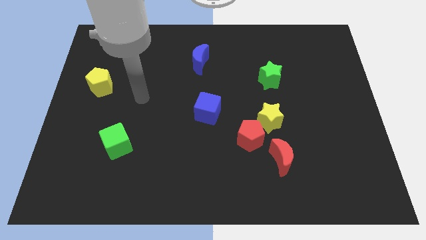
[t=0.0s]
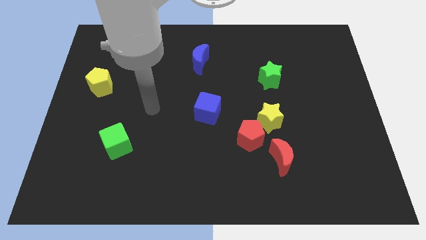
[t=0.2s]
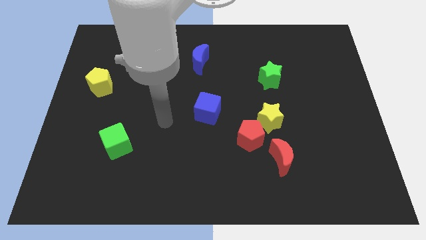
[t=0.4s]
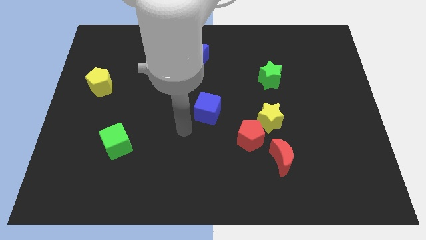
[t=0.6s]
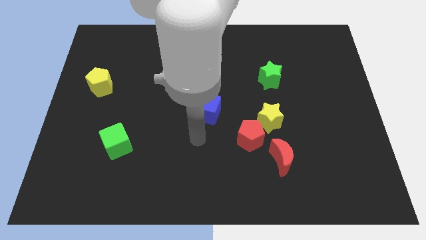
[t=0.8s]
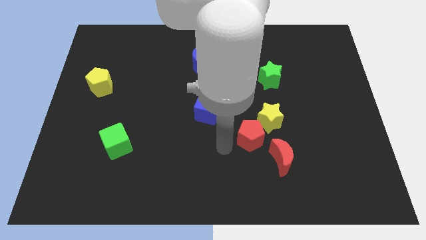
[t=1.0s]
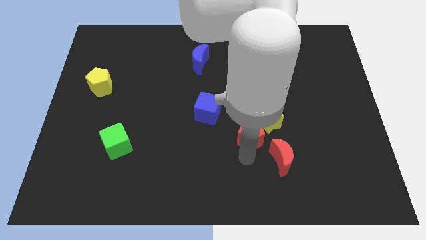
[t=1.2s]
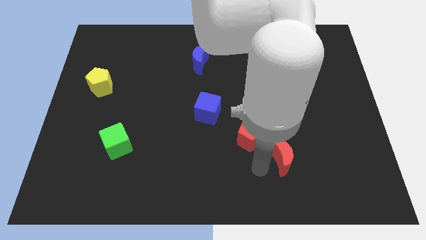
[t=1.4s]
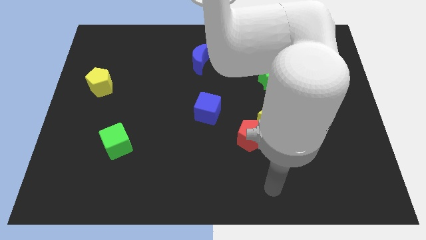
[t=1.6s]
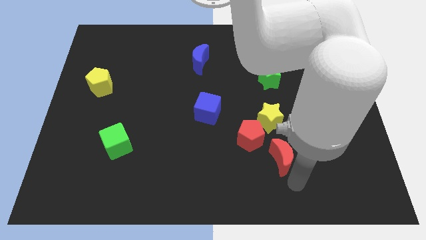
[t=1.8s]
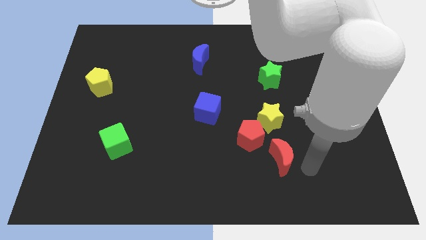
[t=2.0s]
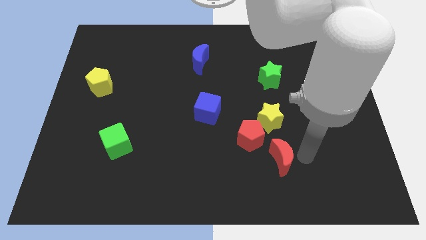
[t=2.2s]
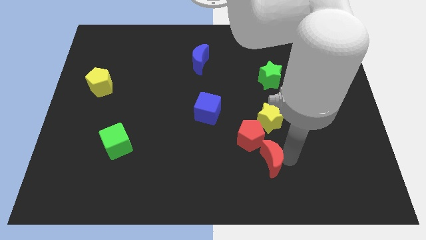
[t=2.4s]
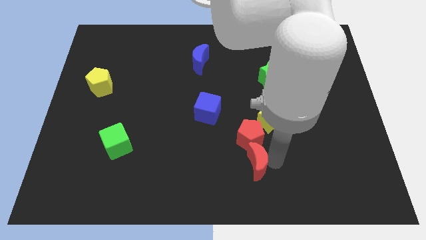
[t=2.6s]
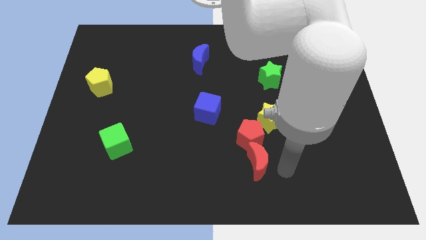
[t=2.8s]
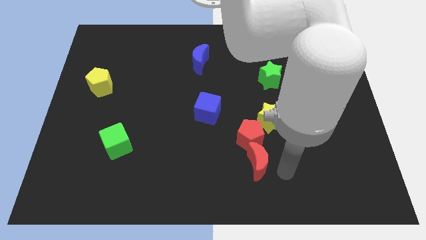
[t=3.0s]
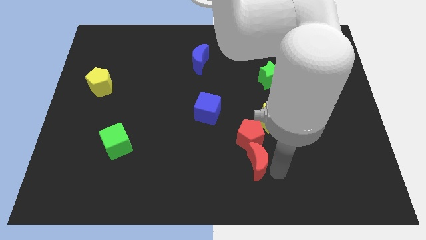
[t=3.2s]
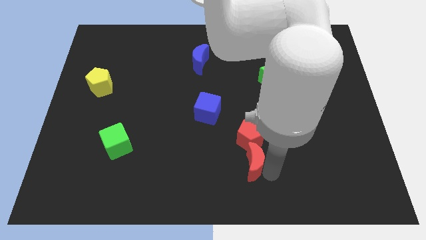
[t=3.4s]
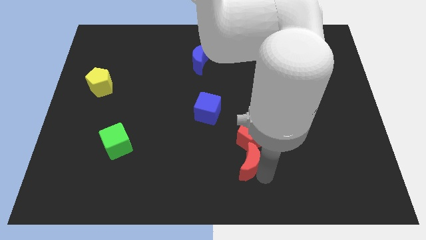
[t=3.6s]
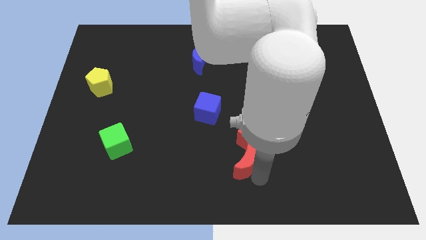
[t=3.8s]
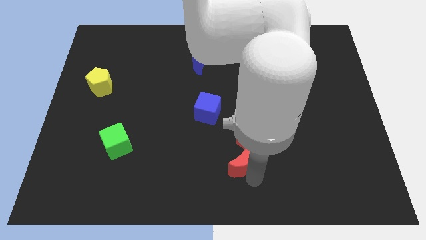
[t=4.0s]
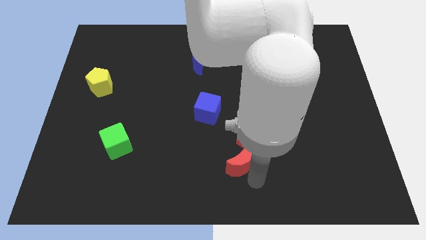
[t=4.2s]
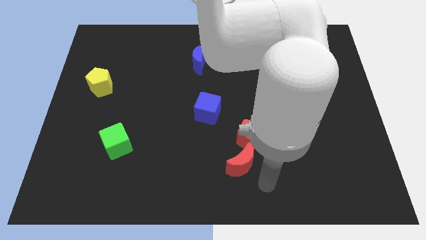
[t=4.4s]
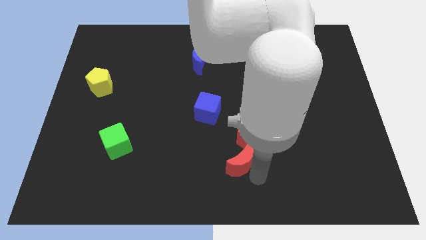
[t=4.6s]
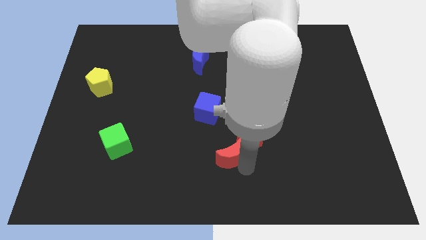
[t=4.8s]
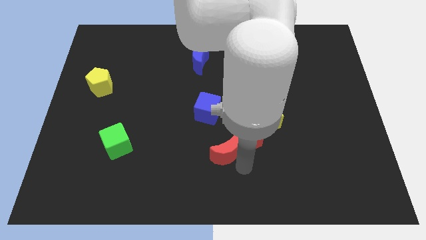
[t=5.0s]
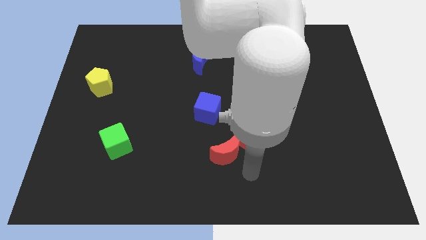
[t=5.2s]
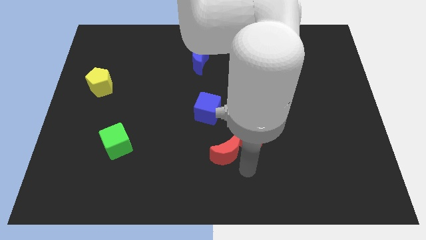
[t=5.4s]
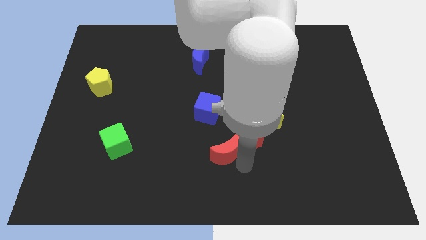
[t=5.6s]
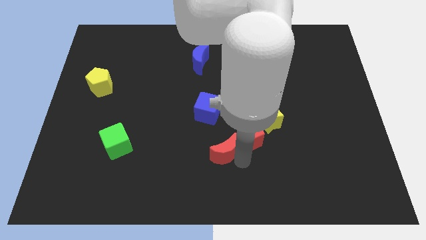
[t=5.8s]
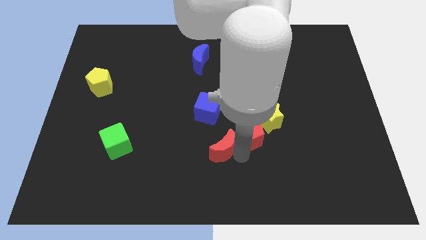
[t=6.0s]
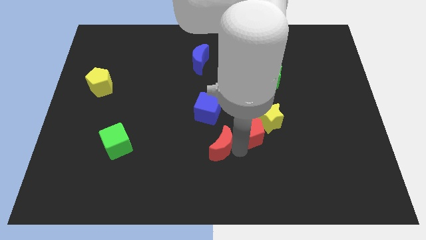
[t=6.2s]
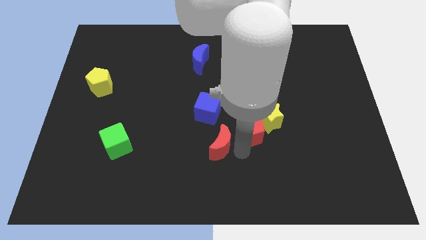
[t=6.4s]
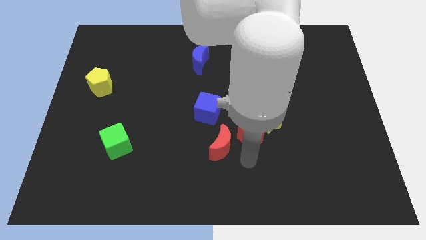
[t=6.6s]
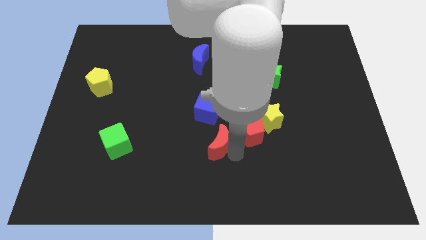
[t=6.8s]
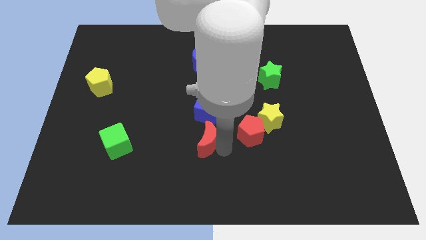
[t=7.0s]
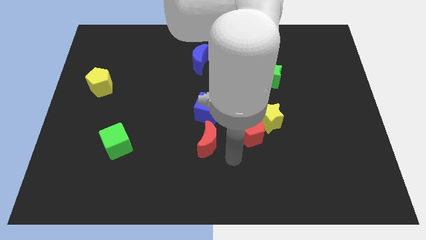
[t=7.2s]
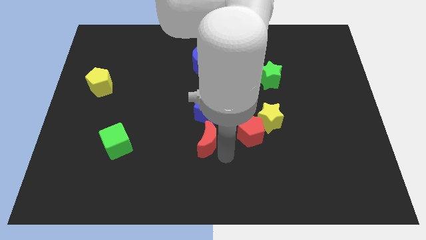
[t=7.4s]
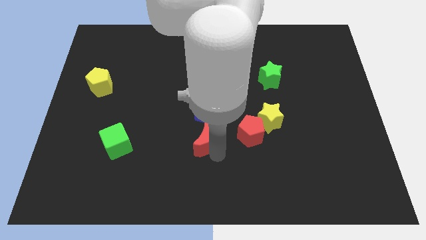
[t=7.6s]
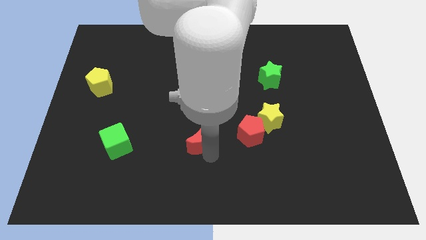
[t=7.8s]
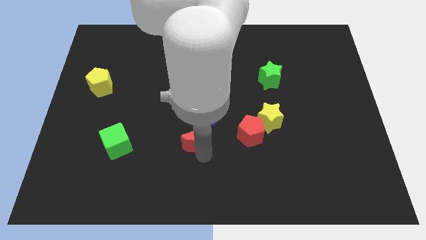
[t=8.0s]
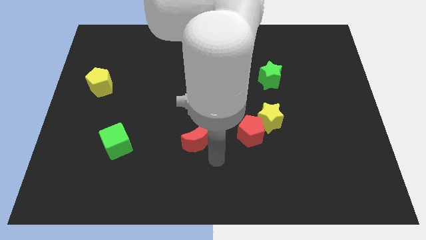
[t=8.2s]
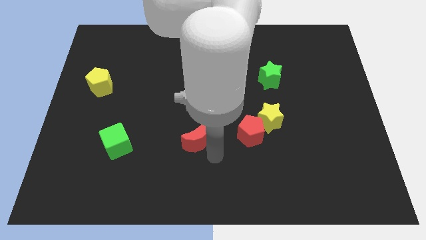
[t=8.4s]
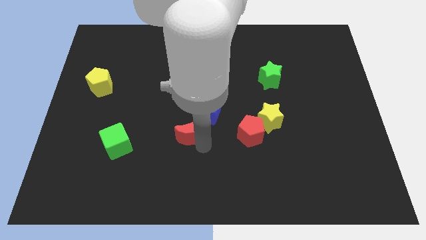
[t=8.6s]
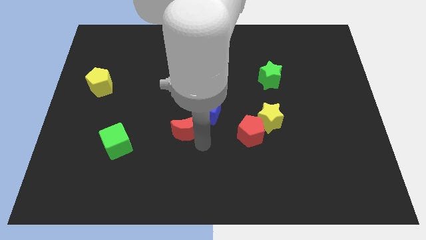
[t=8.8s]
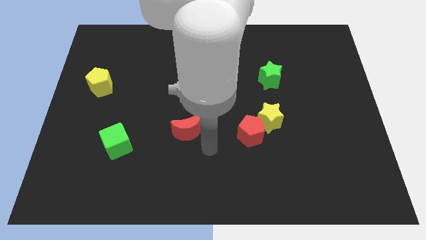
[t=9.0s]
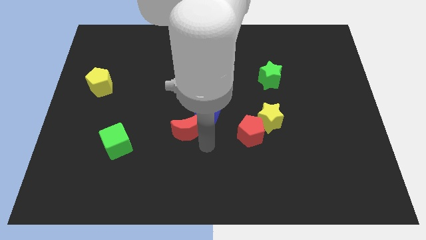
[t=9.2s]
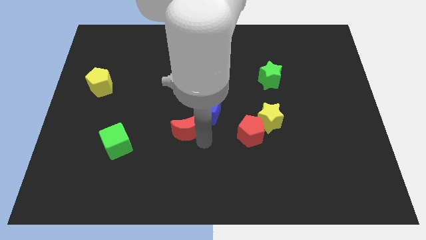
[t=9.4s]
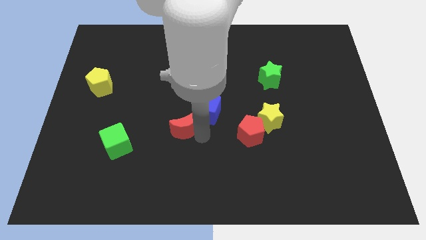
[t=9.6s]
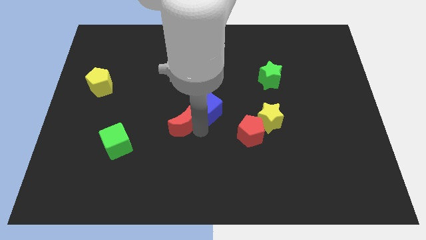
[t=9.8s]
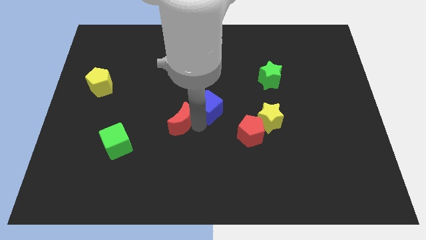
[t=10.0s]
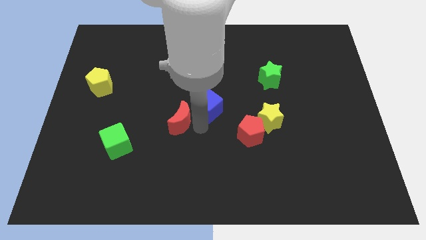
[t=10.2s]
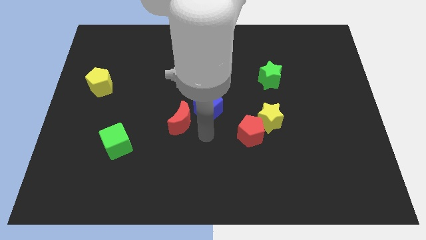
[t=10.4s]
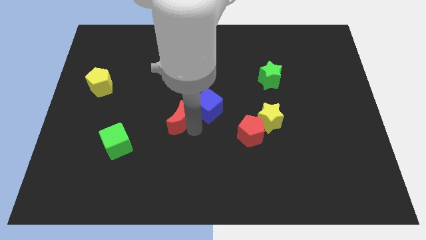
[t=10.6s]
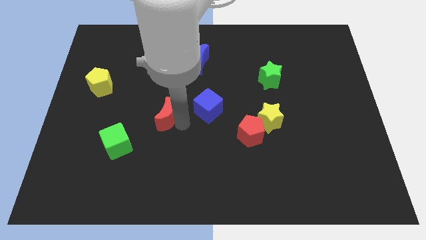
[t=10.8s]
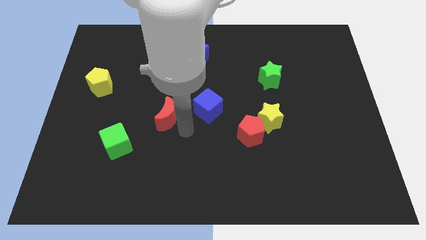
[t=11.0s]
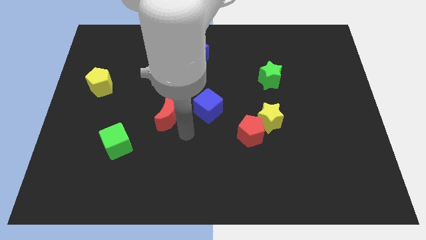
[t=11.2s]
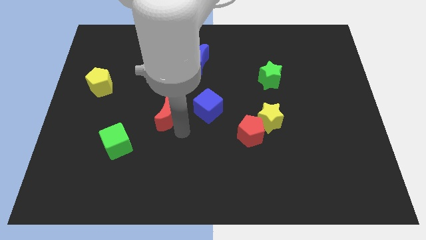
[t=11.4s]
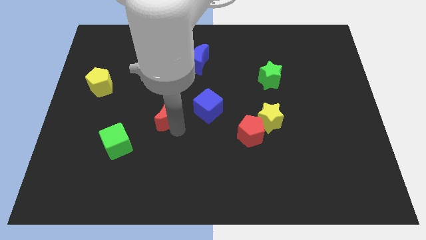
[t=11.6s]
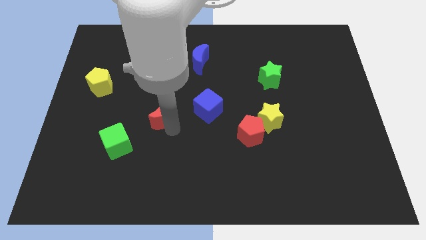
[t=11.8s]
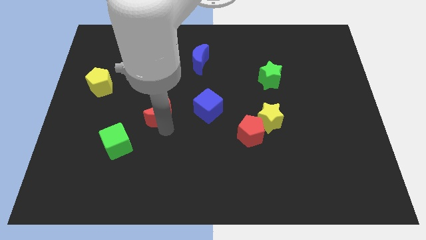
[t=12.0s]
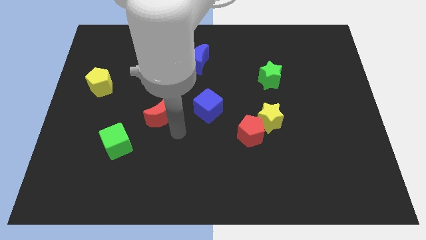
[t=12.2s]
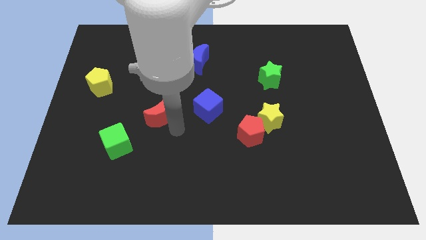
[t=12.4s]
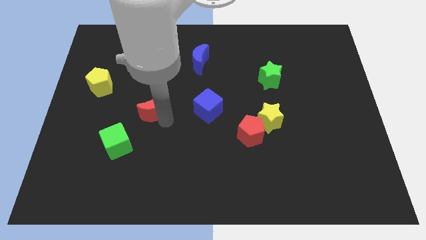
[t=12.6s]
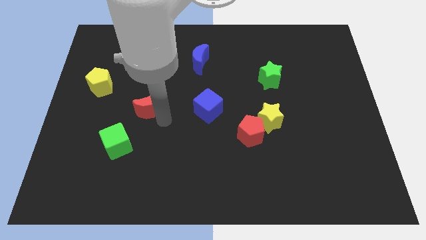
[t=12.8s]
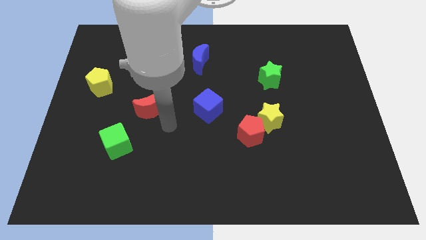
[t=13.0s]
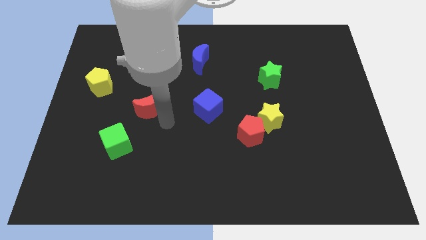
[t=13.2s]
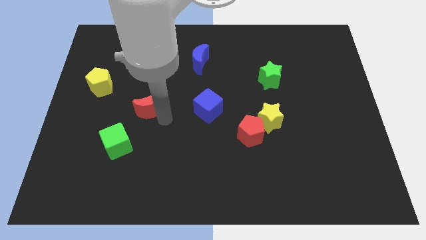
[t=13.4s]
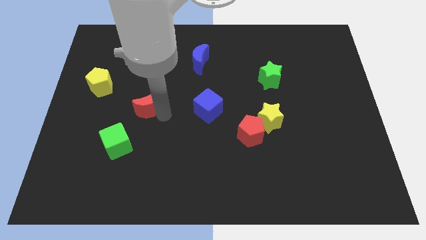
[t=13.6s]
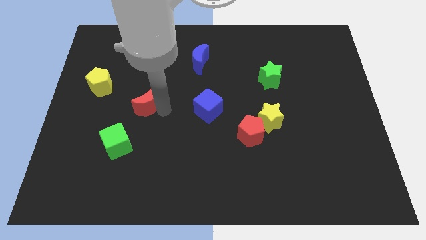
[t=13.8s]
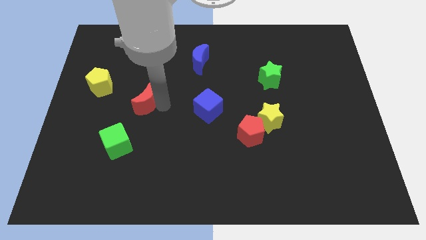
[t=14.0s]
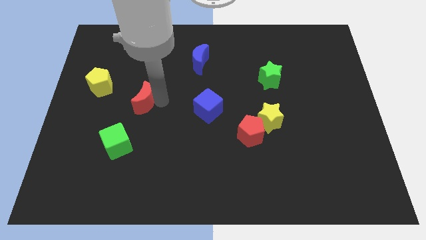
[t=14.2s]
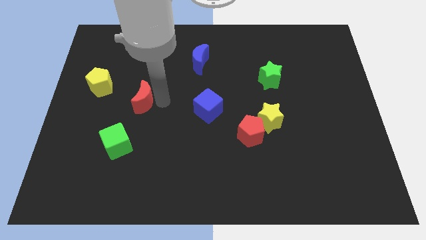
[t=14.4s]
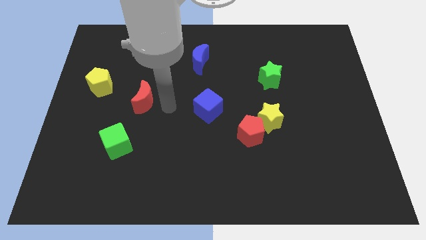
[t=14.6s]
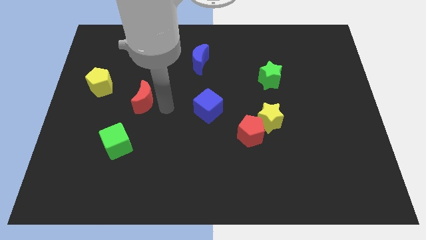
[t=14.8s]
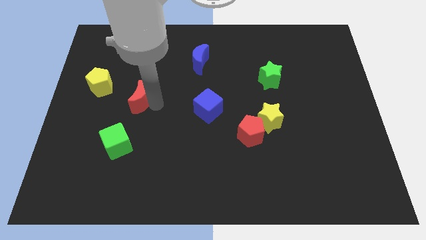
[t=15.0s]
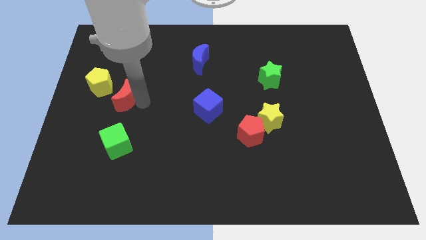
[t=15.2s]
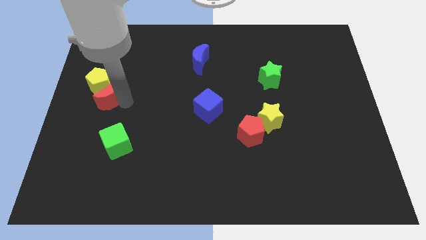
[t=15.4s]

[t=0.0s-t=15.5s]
slide the red moon next to the yellow pentagon

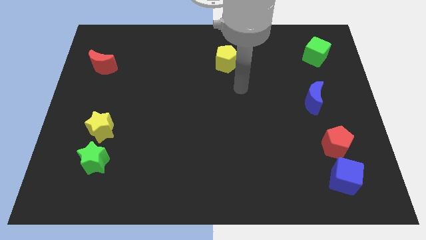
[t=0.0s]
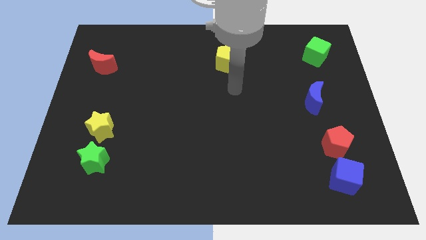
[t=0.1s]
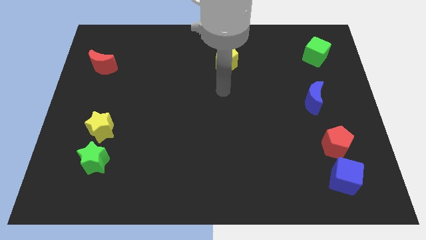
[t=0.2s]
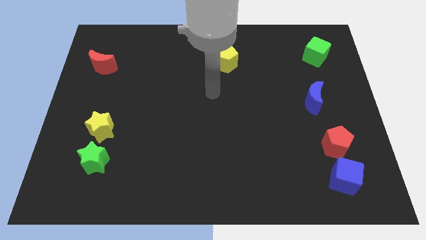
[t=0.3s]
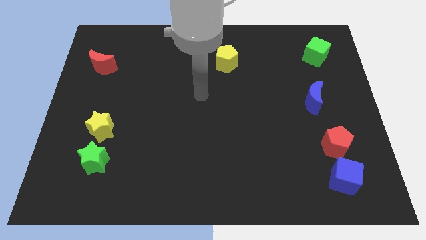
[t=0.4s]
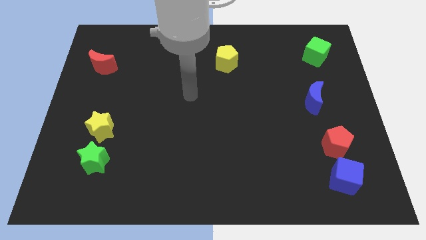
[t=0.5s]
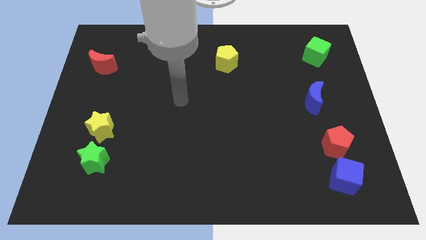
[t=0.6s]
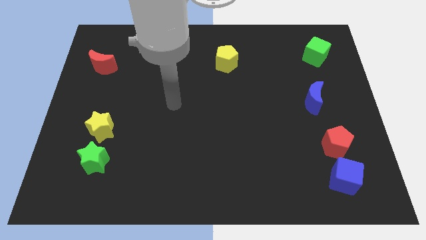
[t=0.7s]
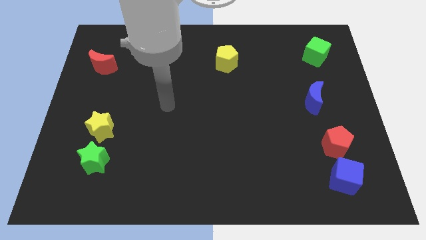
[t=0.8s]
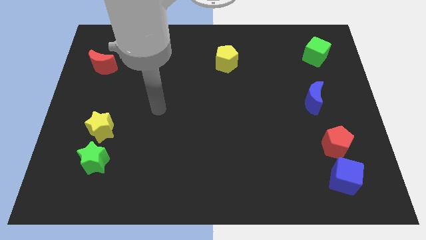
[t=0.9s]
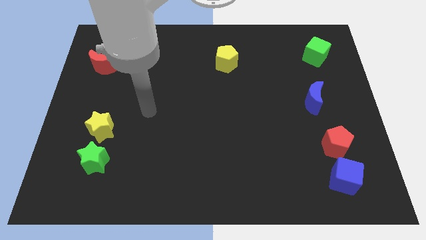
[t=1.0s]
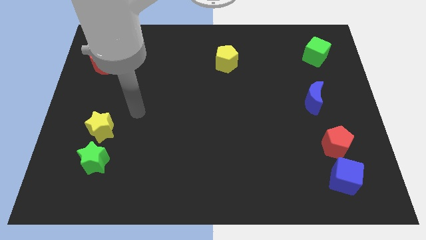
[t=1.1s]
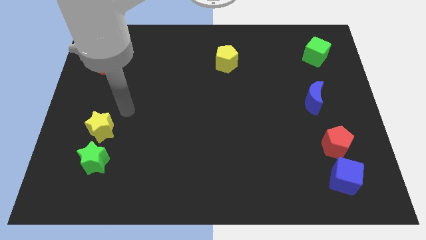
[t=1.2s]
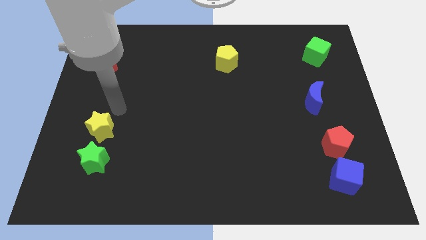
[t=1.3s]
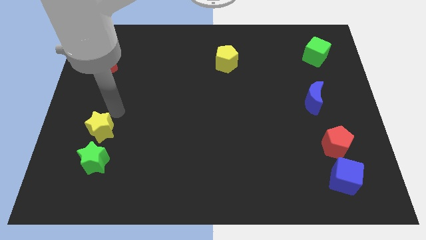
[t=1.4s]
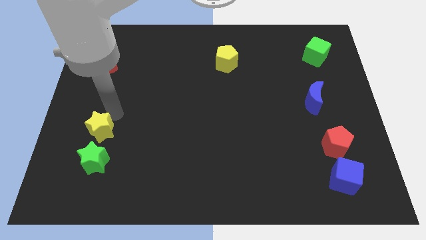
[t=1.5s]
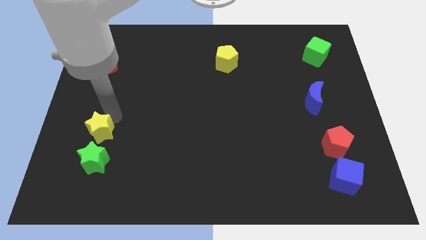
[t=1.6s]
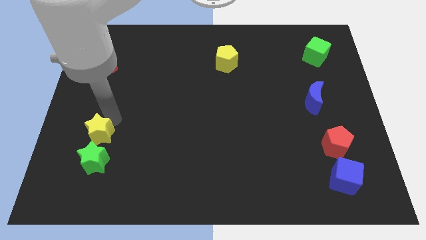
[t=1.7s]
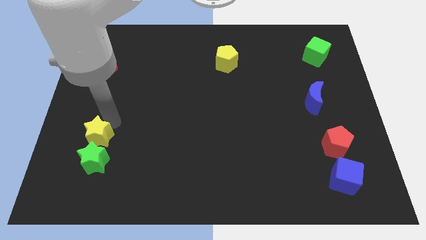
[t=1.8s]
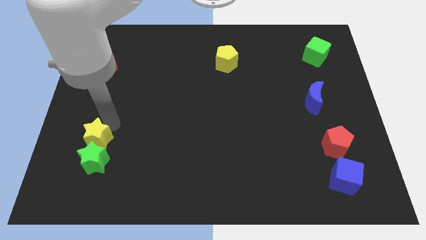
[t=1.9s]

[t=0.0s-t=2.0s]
slide the yellow star next to the green star
